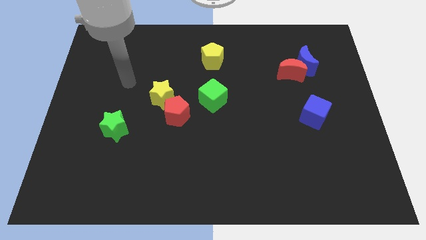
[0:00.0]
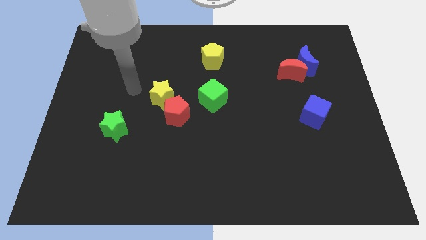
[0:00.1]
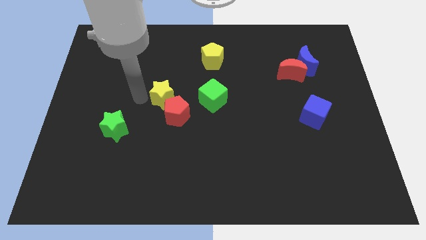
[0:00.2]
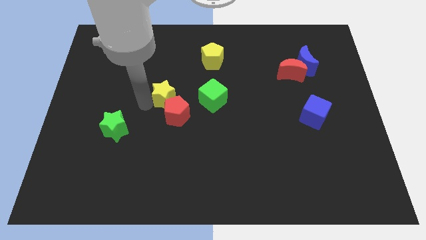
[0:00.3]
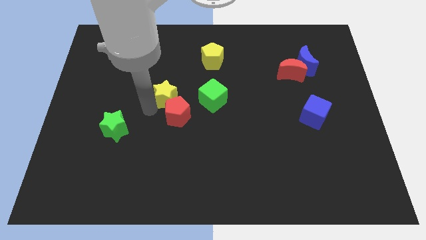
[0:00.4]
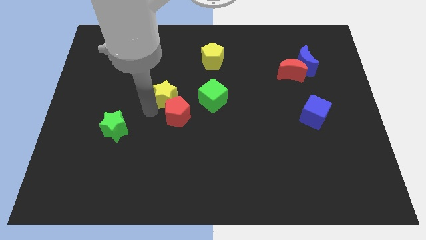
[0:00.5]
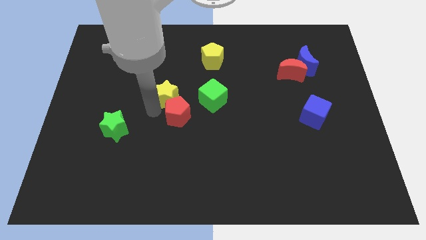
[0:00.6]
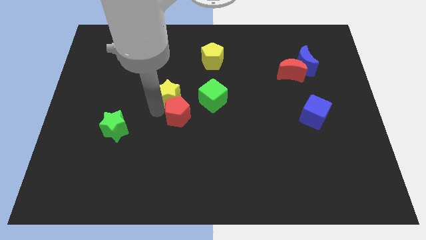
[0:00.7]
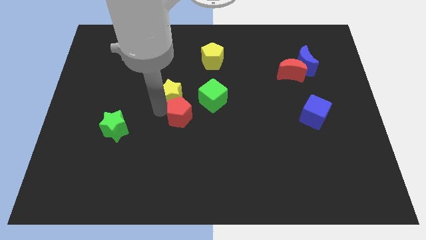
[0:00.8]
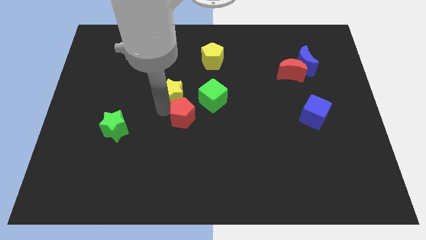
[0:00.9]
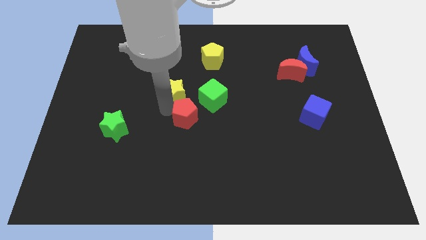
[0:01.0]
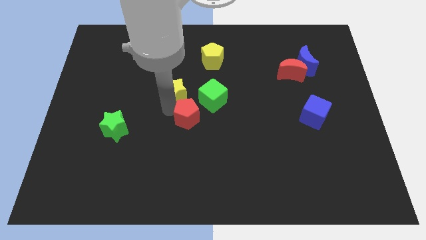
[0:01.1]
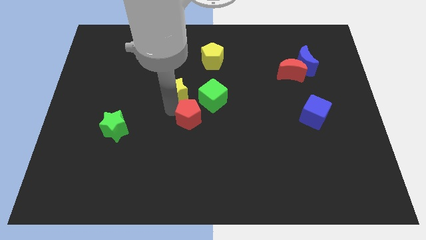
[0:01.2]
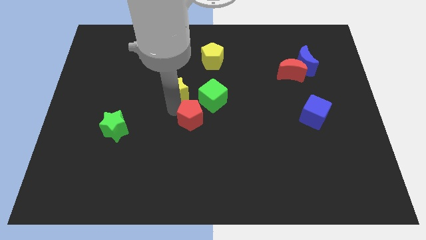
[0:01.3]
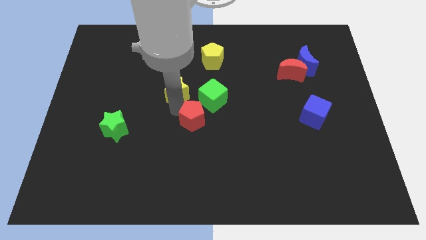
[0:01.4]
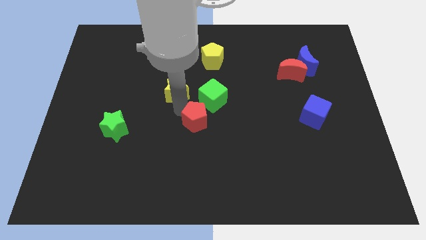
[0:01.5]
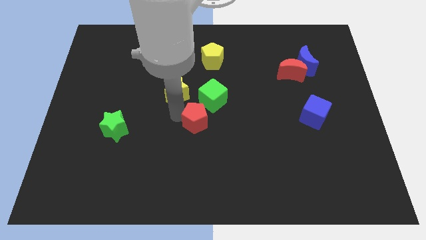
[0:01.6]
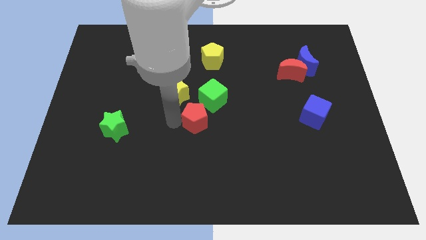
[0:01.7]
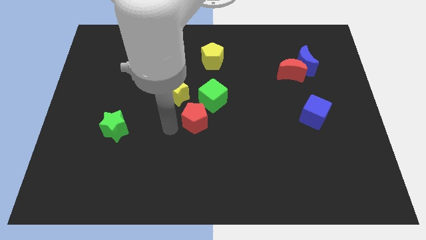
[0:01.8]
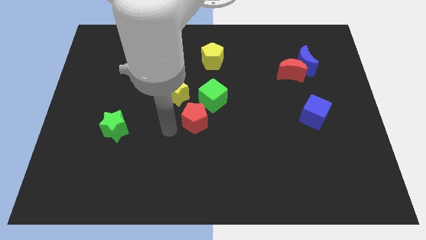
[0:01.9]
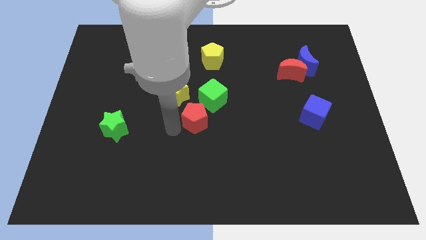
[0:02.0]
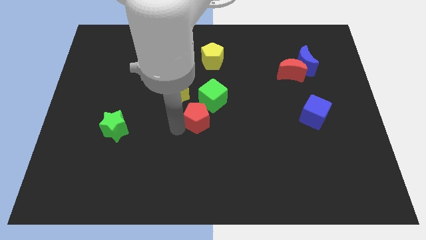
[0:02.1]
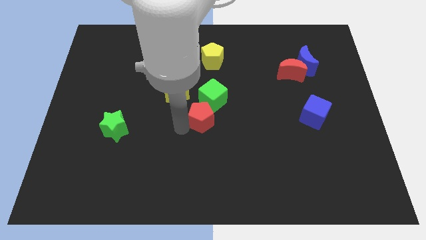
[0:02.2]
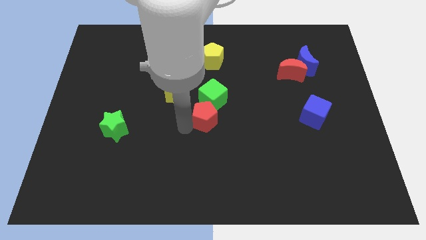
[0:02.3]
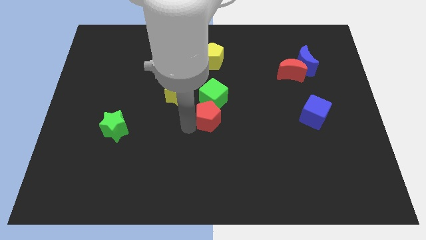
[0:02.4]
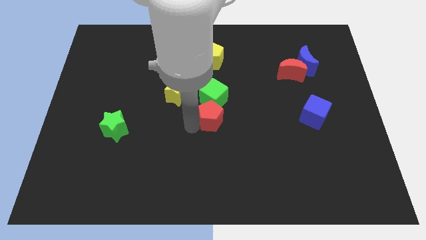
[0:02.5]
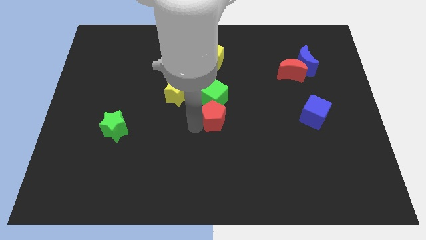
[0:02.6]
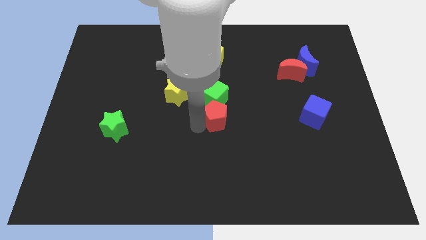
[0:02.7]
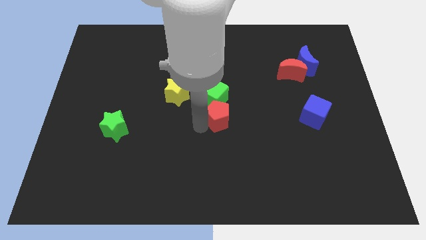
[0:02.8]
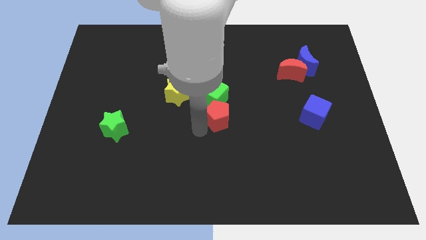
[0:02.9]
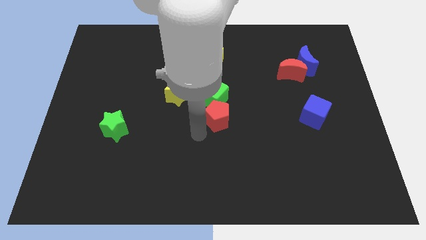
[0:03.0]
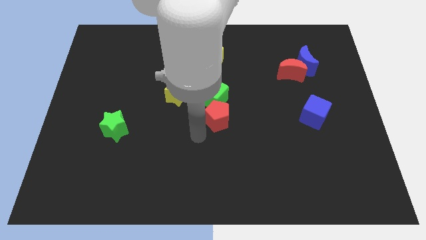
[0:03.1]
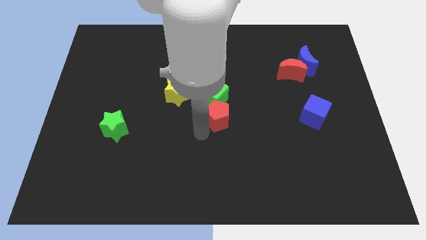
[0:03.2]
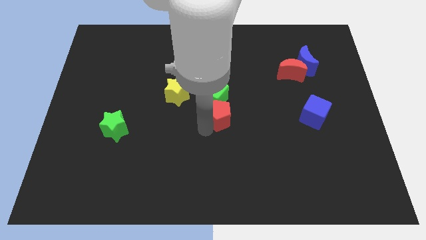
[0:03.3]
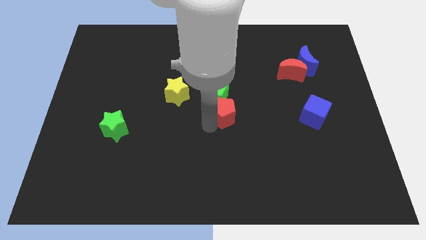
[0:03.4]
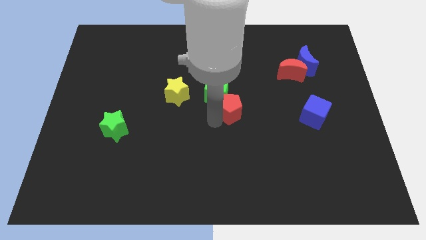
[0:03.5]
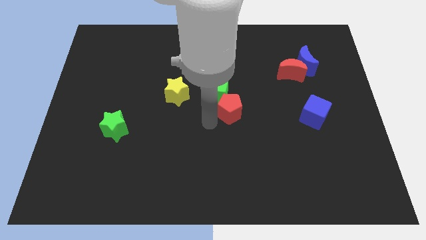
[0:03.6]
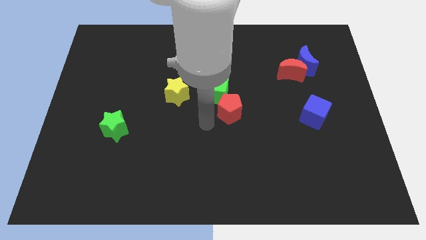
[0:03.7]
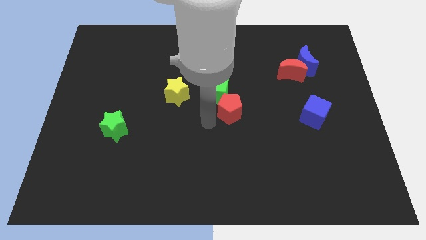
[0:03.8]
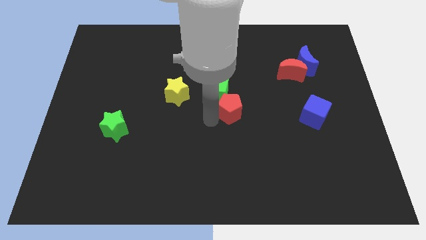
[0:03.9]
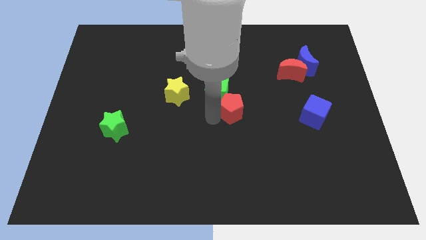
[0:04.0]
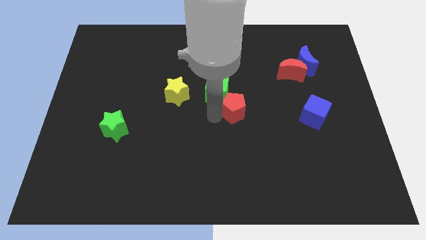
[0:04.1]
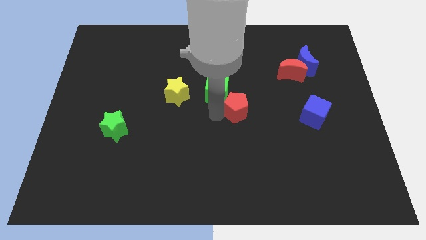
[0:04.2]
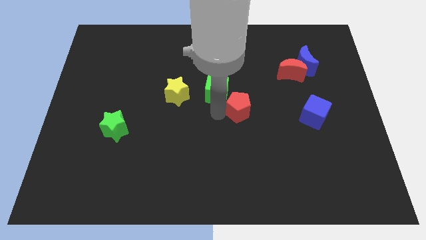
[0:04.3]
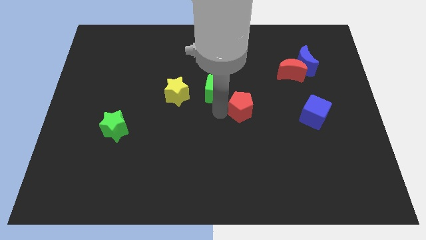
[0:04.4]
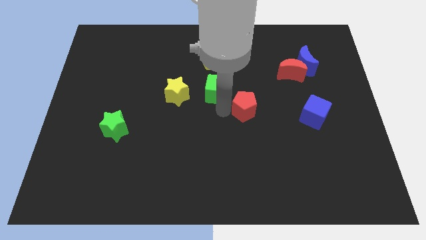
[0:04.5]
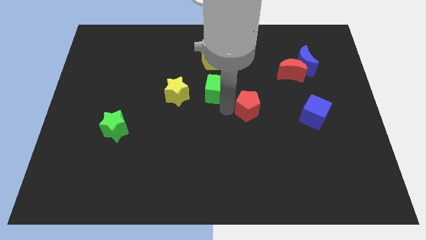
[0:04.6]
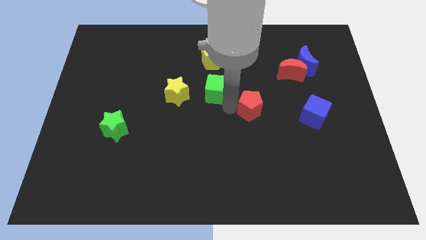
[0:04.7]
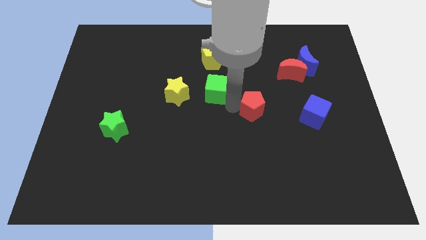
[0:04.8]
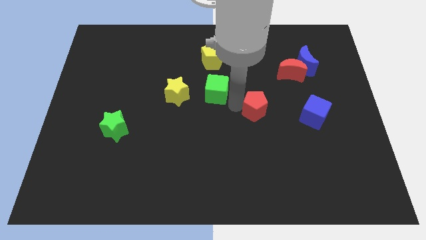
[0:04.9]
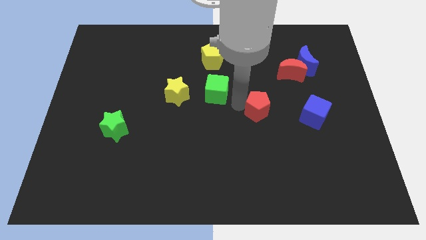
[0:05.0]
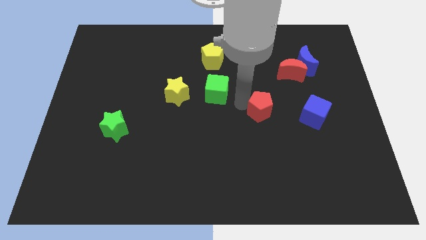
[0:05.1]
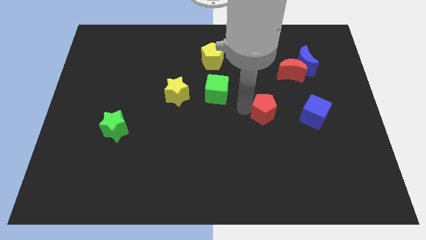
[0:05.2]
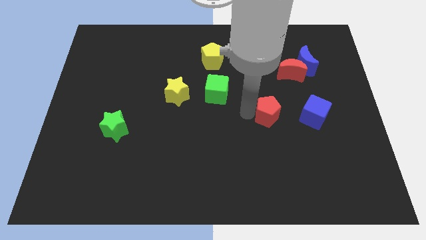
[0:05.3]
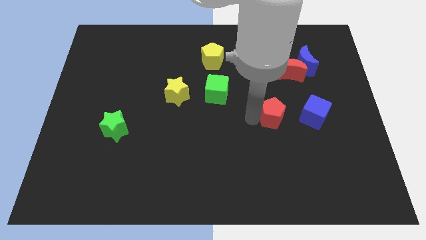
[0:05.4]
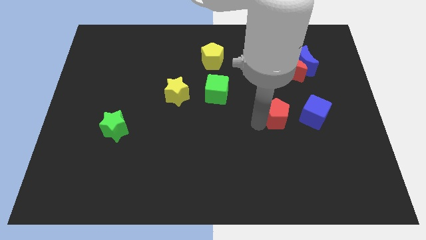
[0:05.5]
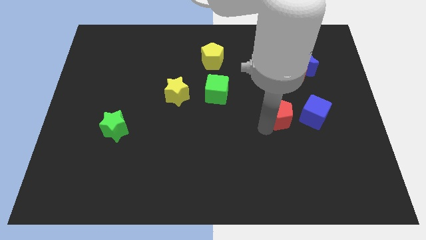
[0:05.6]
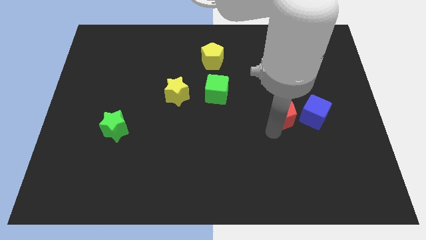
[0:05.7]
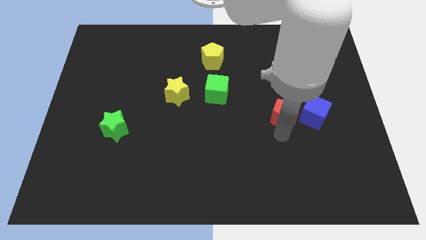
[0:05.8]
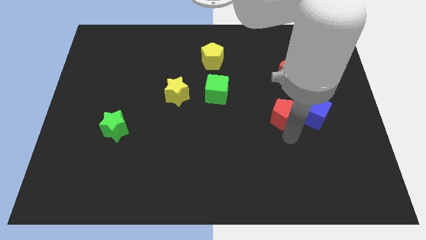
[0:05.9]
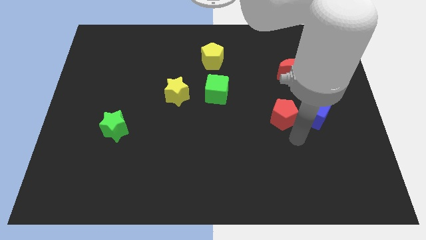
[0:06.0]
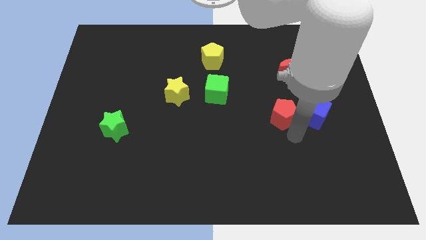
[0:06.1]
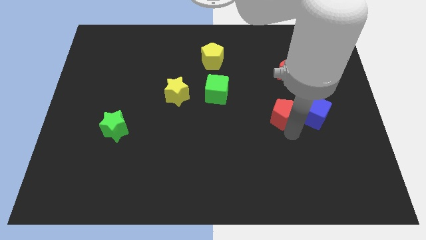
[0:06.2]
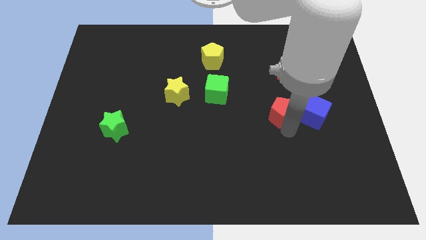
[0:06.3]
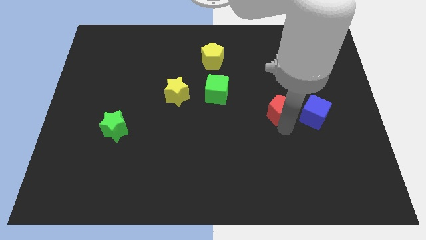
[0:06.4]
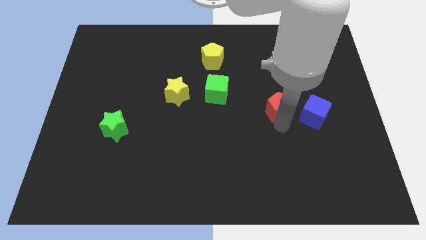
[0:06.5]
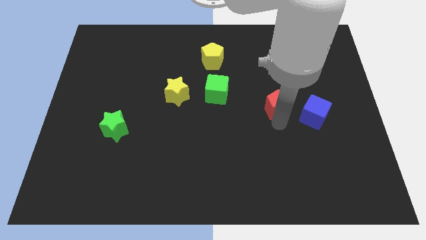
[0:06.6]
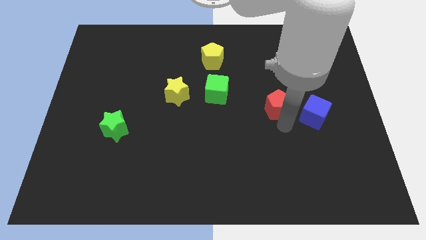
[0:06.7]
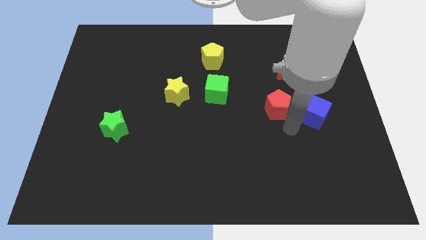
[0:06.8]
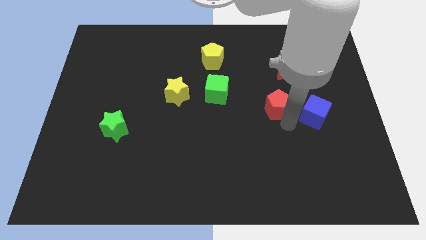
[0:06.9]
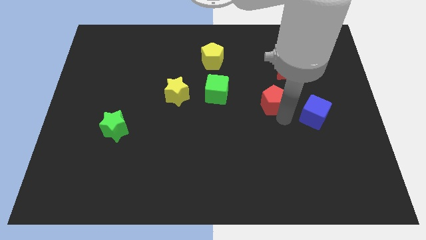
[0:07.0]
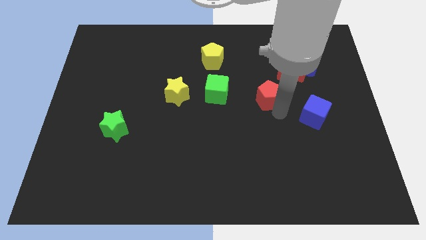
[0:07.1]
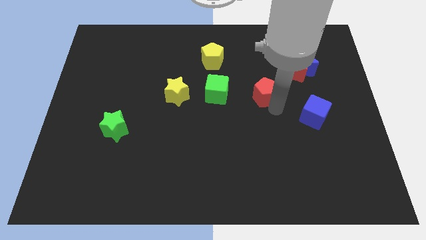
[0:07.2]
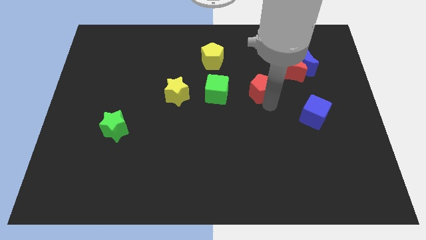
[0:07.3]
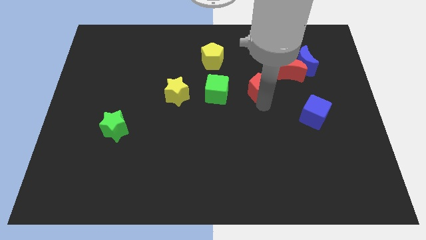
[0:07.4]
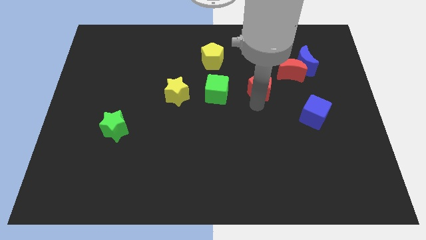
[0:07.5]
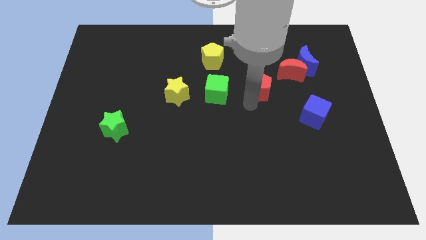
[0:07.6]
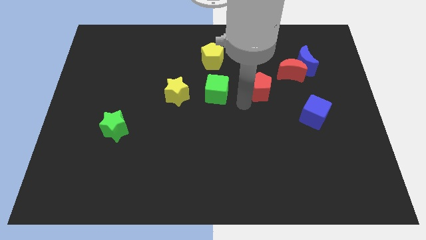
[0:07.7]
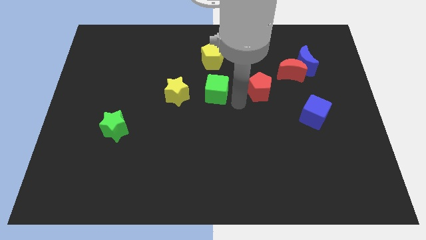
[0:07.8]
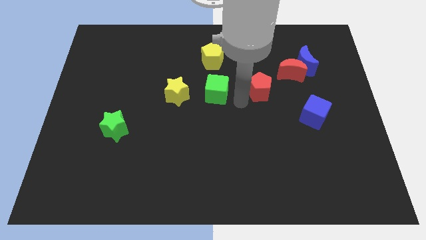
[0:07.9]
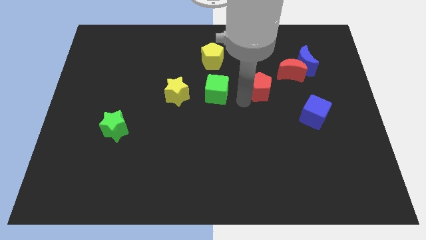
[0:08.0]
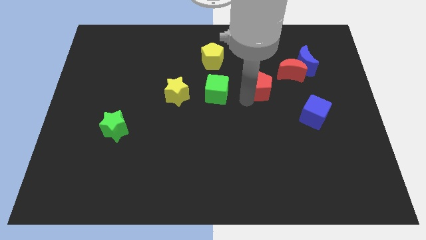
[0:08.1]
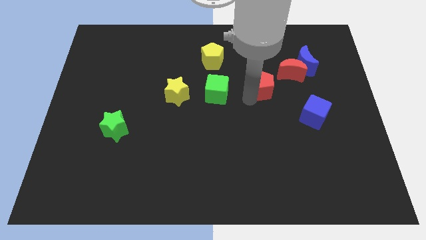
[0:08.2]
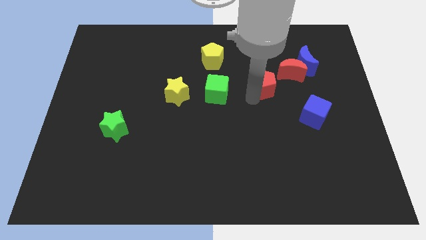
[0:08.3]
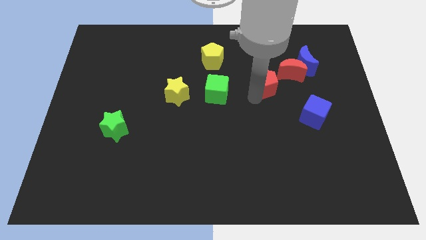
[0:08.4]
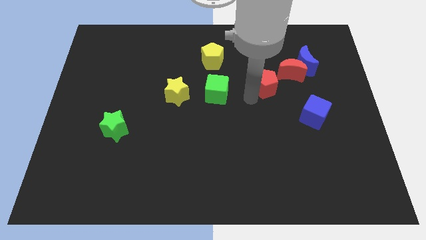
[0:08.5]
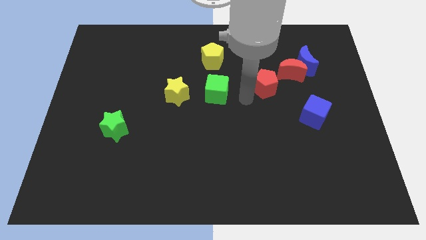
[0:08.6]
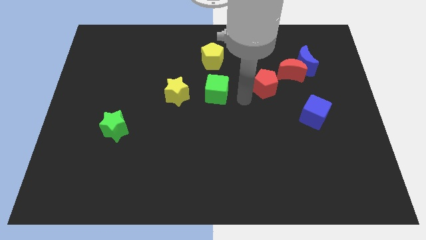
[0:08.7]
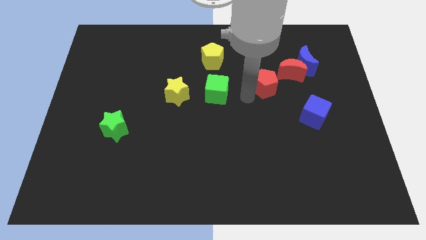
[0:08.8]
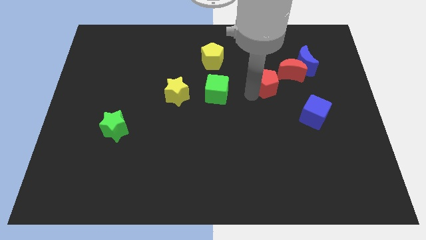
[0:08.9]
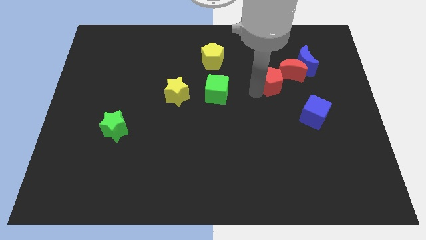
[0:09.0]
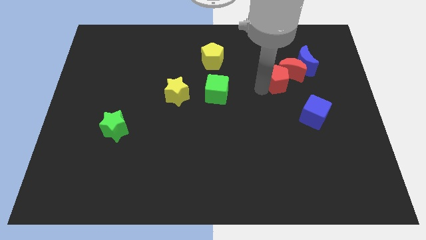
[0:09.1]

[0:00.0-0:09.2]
put the red pentagon towards the red moon
